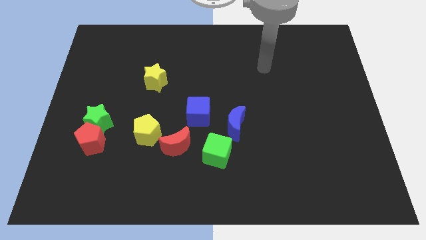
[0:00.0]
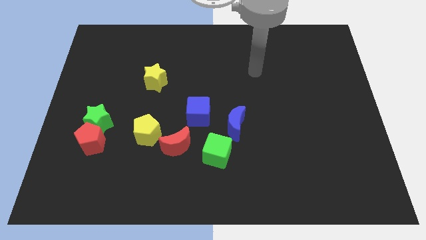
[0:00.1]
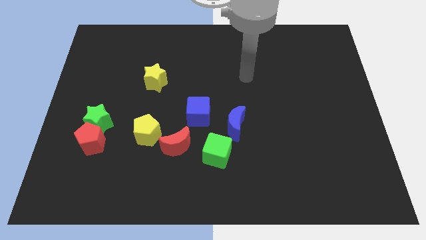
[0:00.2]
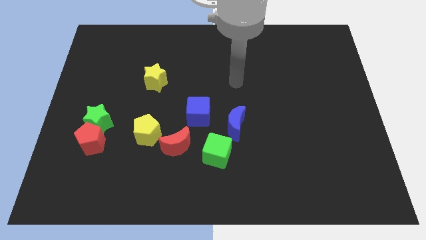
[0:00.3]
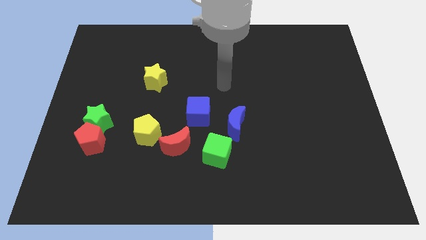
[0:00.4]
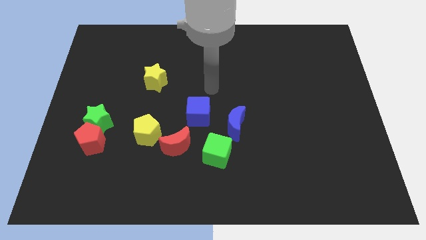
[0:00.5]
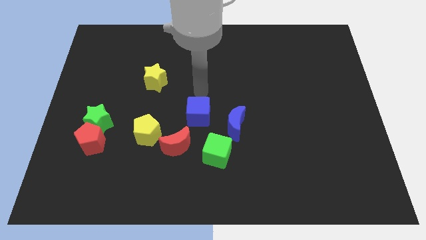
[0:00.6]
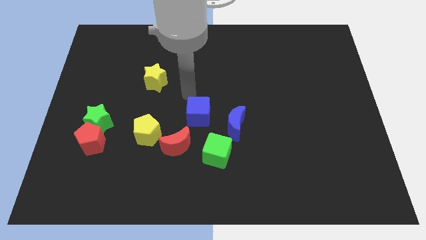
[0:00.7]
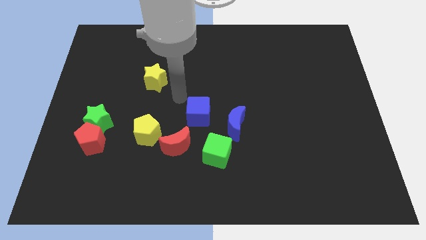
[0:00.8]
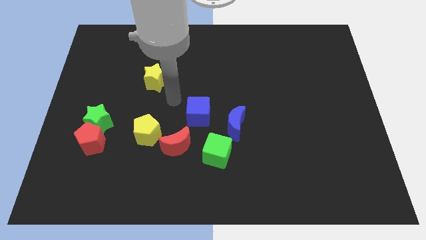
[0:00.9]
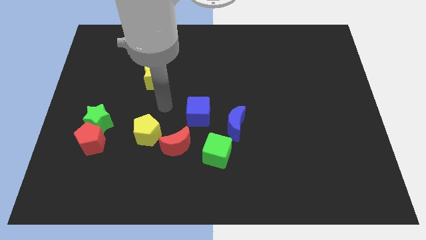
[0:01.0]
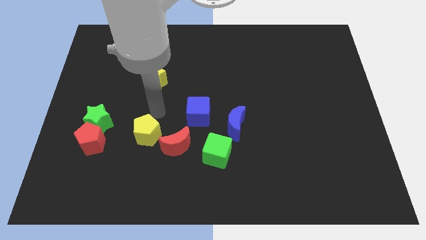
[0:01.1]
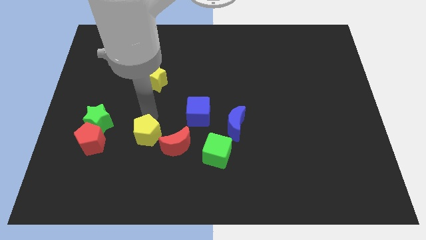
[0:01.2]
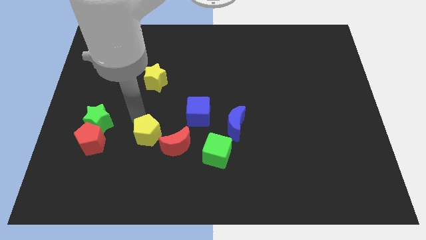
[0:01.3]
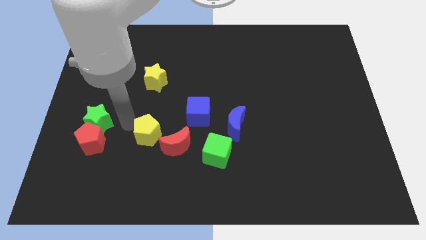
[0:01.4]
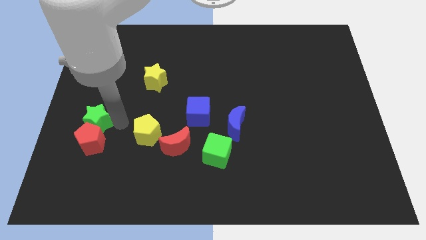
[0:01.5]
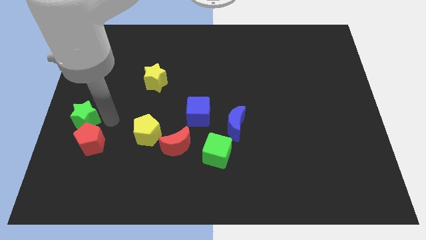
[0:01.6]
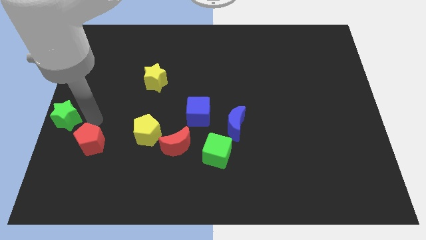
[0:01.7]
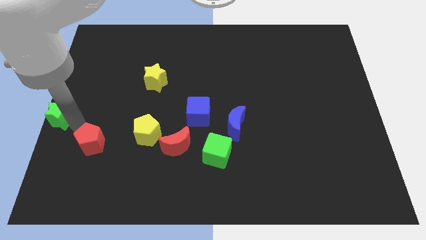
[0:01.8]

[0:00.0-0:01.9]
pull the red pentagon apart from the green star

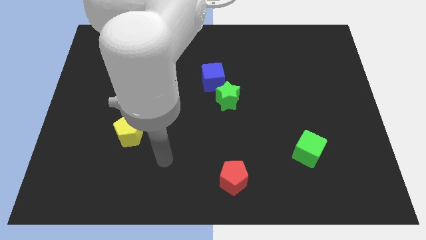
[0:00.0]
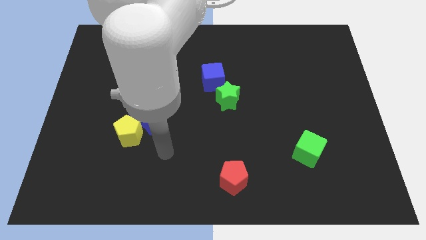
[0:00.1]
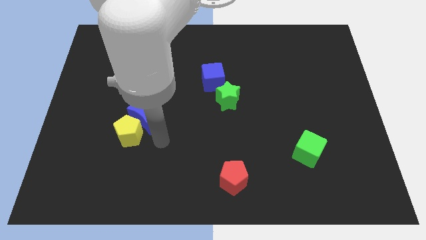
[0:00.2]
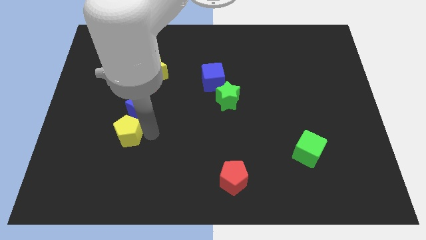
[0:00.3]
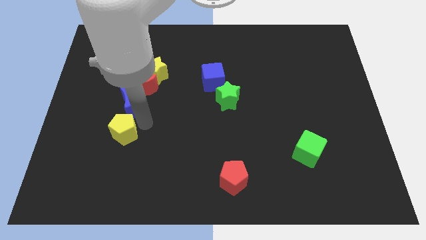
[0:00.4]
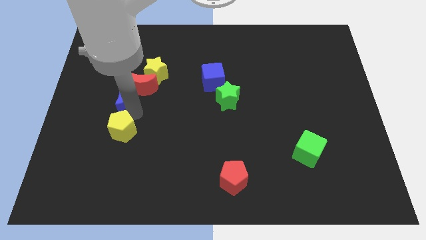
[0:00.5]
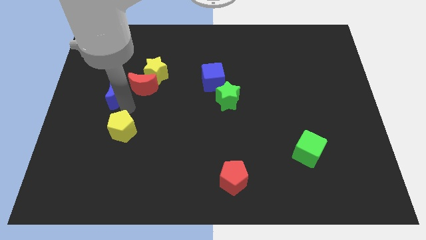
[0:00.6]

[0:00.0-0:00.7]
move the yellow pentagon away from the blue moon

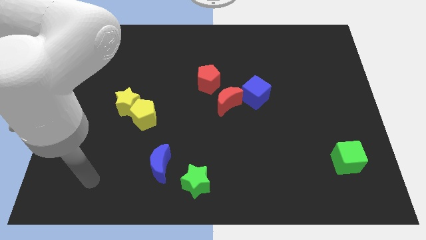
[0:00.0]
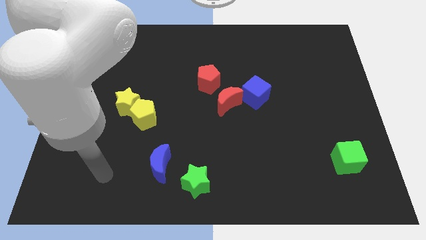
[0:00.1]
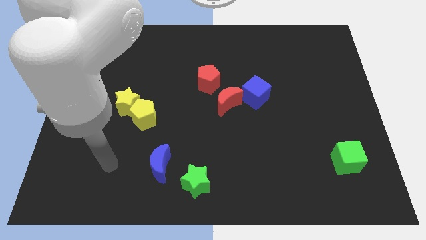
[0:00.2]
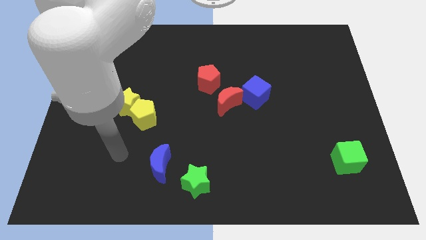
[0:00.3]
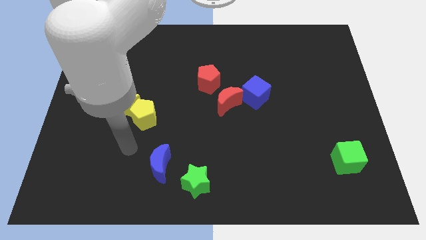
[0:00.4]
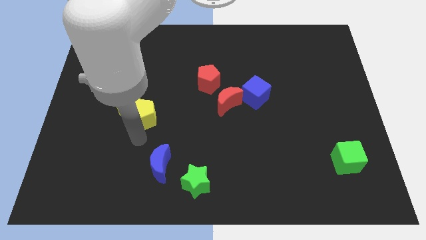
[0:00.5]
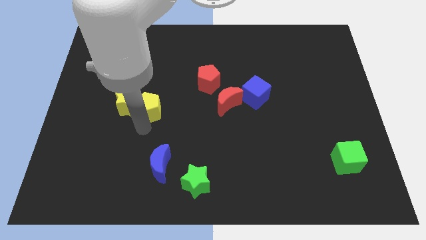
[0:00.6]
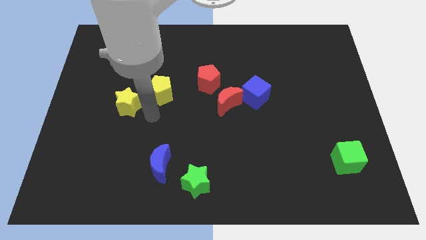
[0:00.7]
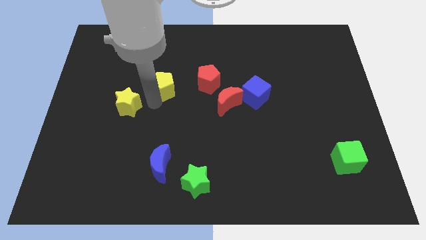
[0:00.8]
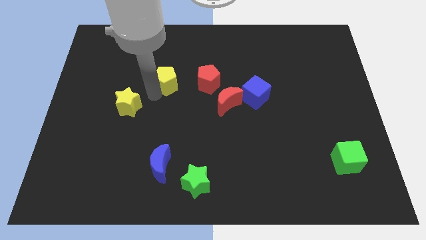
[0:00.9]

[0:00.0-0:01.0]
separate the yellow star from the yellow pentagon

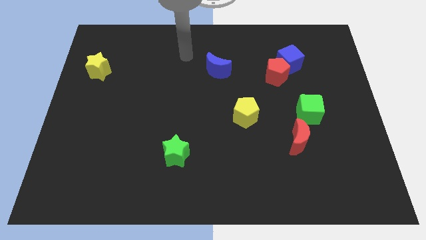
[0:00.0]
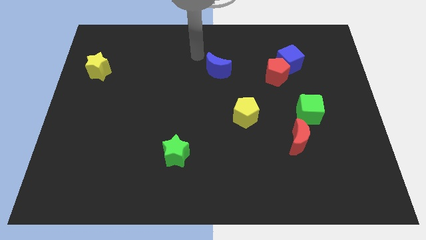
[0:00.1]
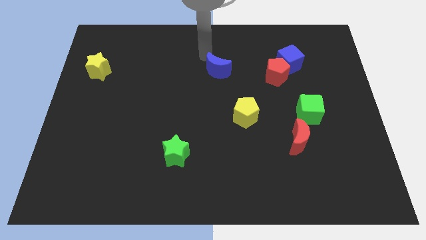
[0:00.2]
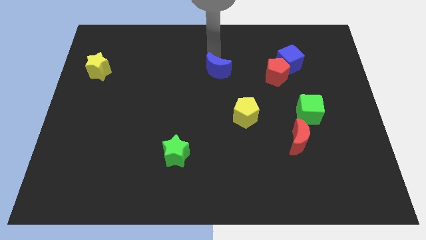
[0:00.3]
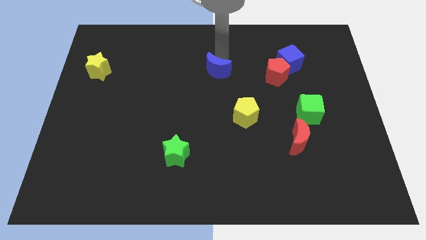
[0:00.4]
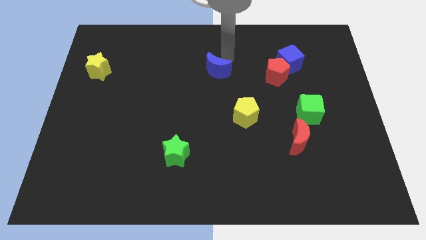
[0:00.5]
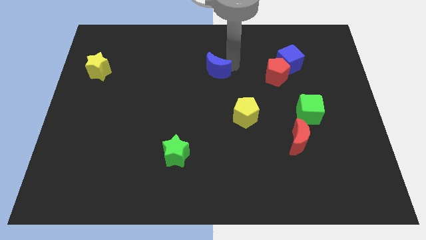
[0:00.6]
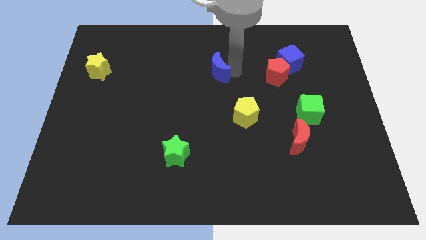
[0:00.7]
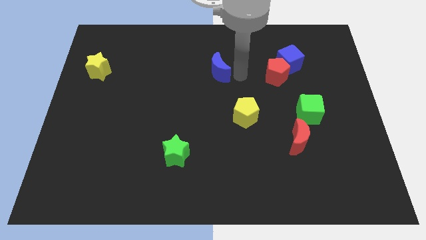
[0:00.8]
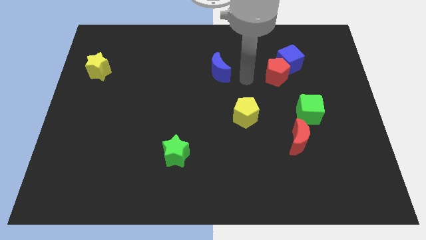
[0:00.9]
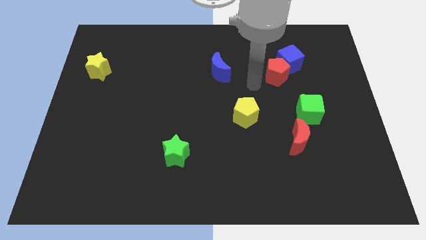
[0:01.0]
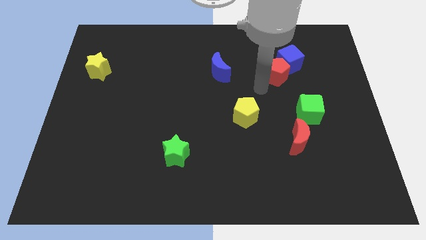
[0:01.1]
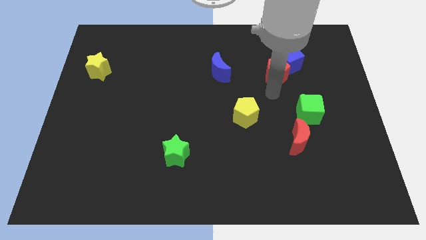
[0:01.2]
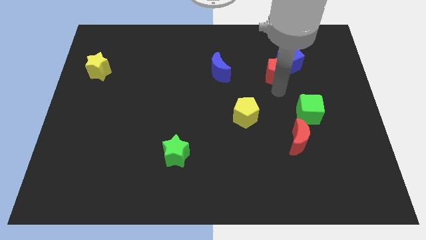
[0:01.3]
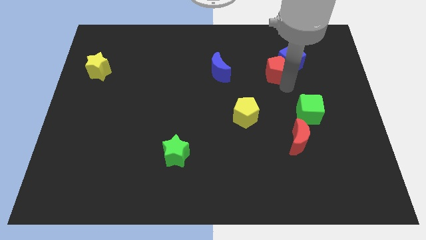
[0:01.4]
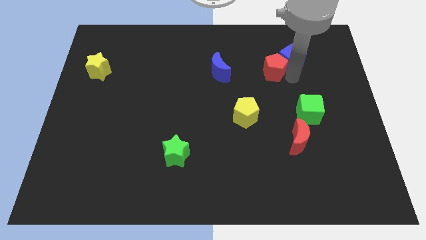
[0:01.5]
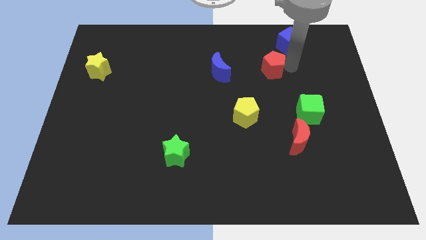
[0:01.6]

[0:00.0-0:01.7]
pull the red pentagon apart from the blue cube

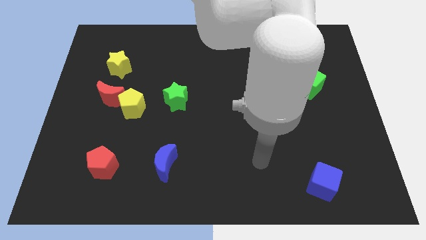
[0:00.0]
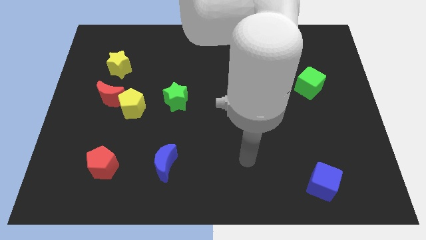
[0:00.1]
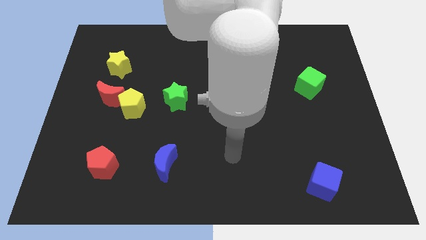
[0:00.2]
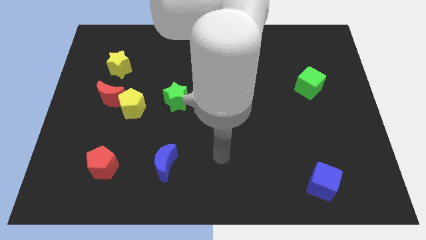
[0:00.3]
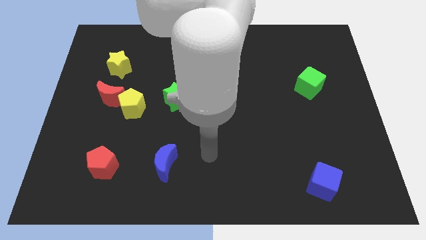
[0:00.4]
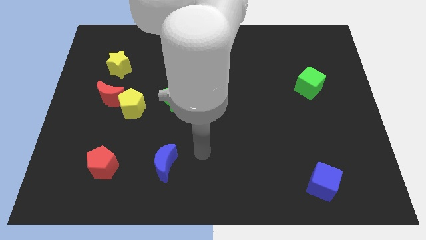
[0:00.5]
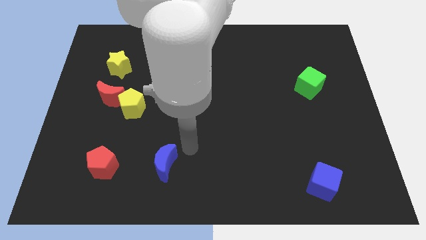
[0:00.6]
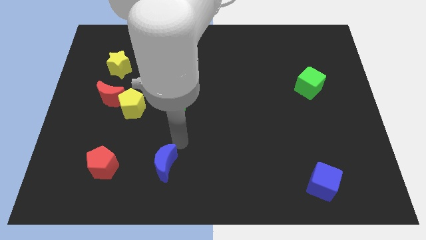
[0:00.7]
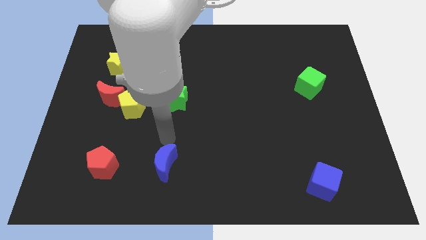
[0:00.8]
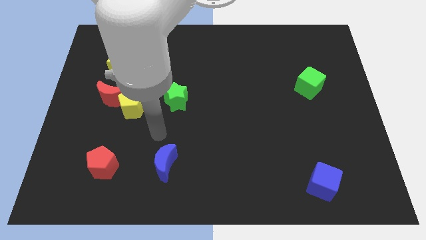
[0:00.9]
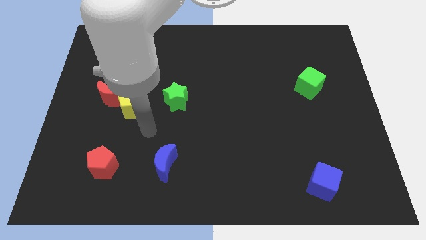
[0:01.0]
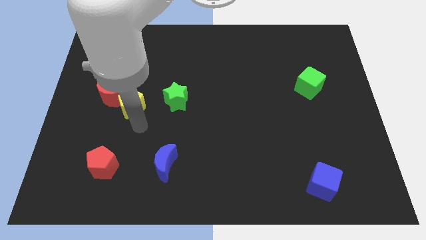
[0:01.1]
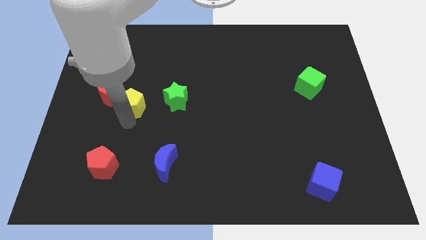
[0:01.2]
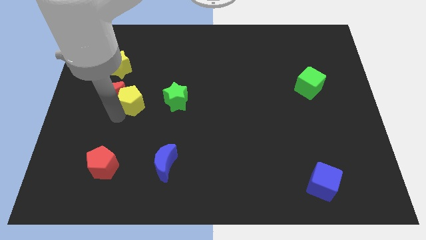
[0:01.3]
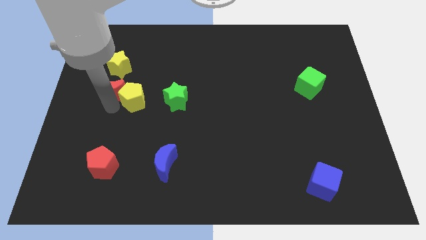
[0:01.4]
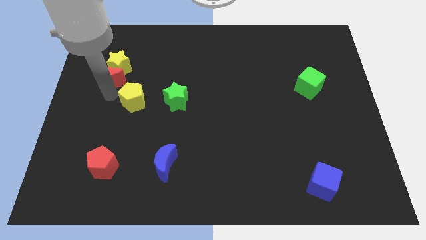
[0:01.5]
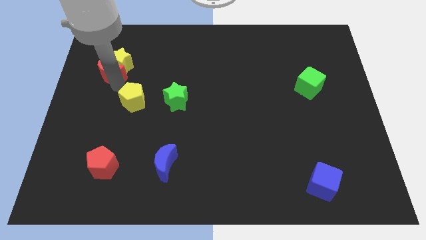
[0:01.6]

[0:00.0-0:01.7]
move the yellow pentagon away from the red moon

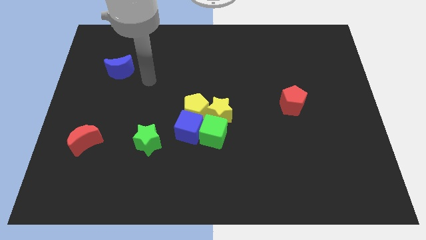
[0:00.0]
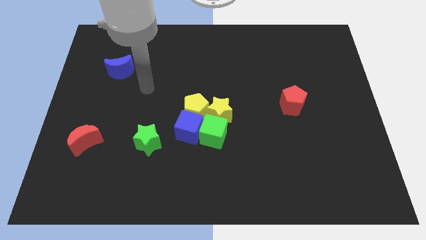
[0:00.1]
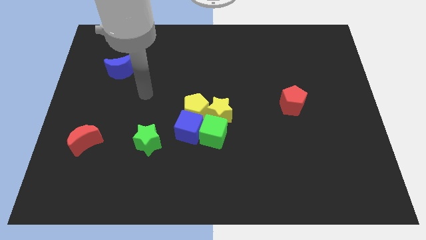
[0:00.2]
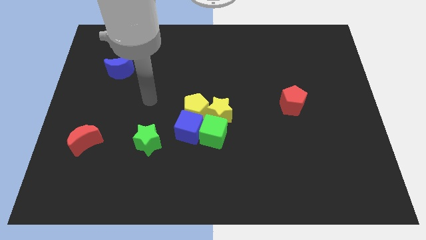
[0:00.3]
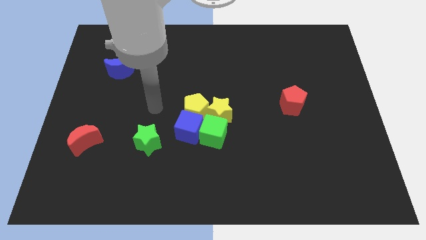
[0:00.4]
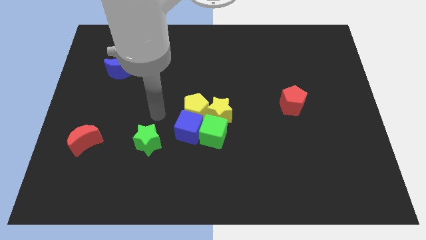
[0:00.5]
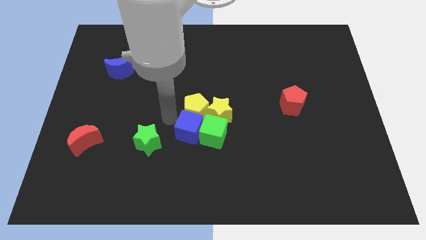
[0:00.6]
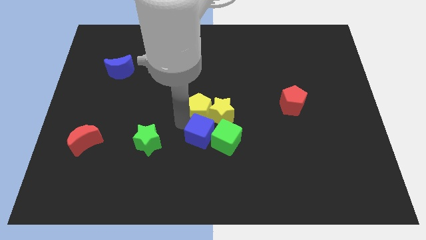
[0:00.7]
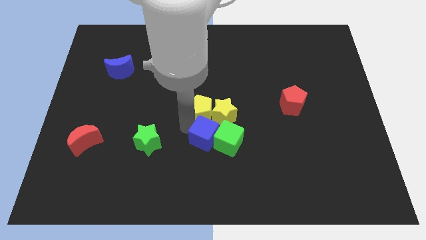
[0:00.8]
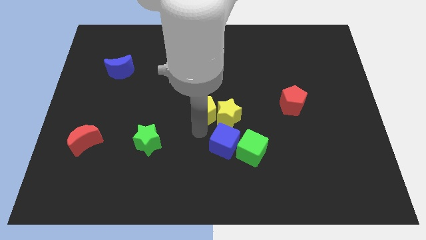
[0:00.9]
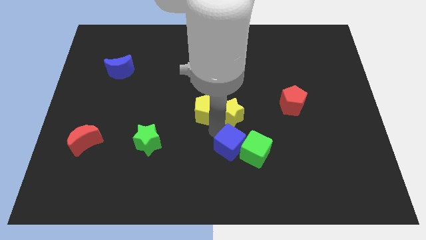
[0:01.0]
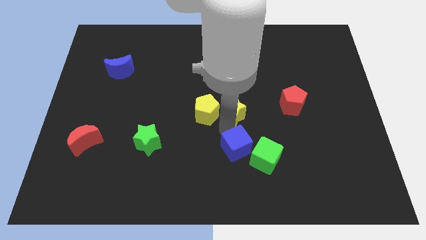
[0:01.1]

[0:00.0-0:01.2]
move the yellow pentagon away from the group of blocks

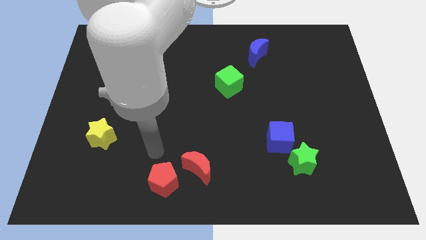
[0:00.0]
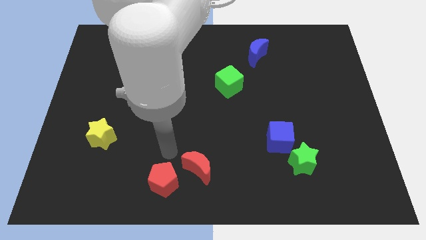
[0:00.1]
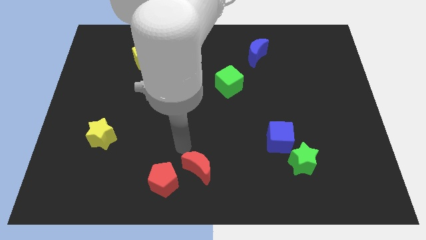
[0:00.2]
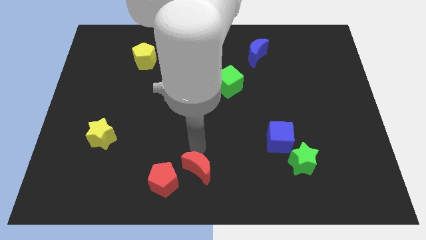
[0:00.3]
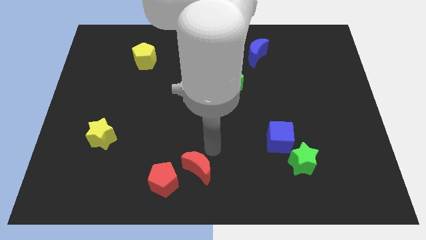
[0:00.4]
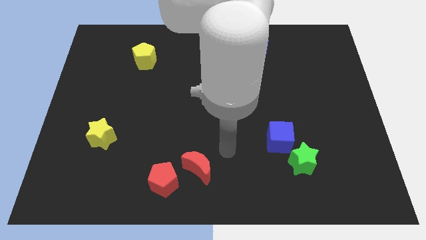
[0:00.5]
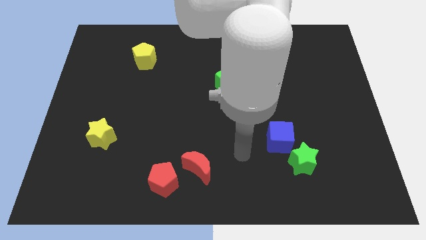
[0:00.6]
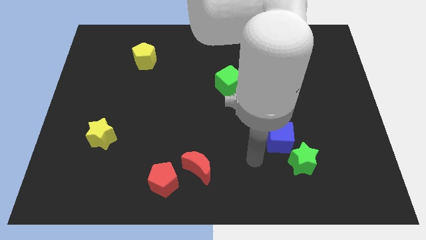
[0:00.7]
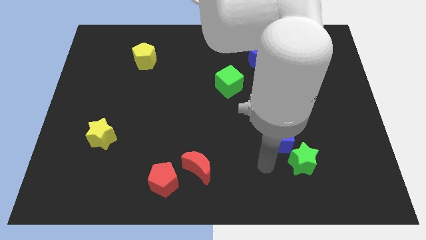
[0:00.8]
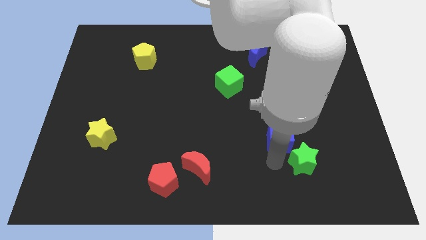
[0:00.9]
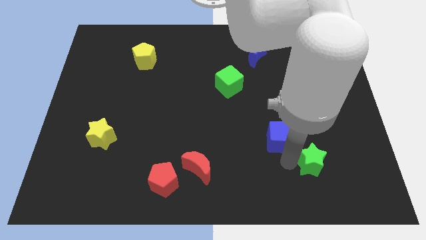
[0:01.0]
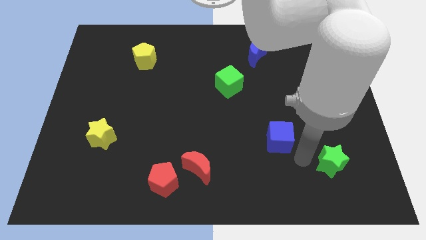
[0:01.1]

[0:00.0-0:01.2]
separate the blue cube from the green star
